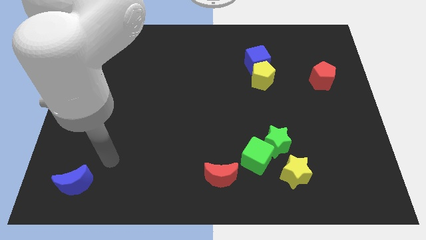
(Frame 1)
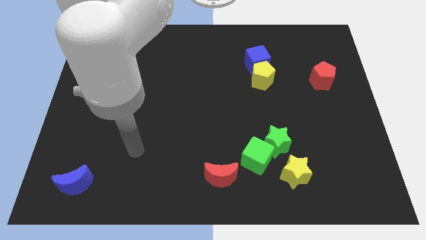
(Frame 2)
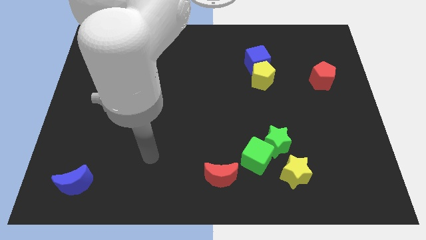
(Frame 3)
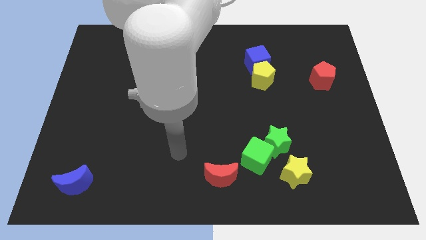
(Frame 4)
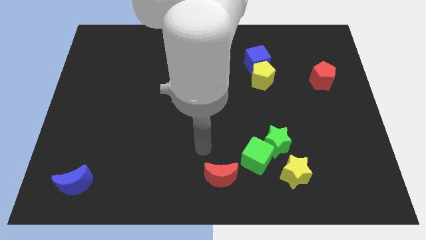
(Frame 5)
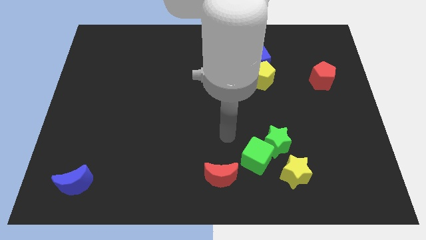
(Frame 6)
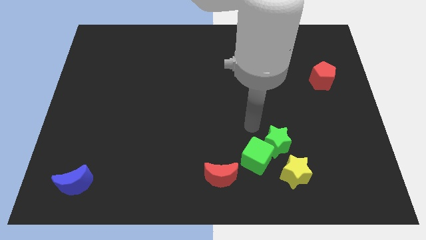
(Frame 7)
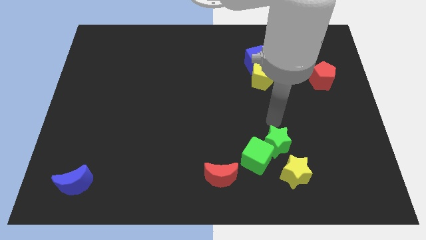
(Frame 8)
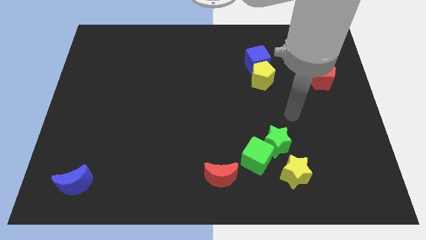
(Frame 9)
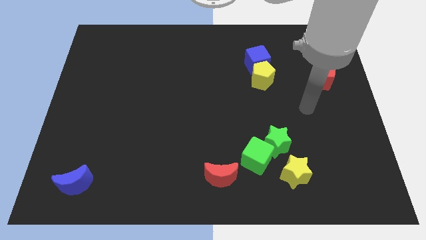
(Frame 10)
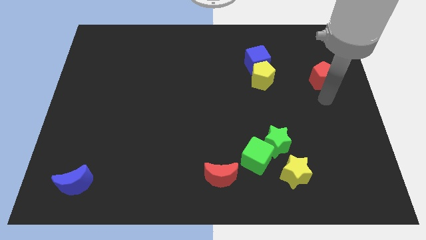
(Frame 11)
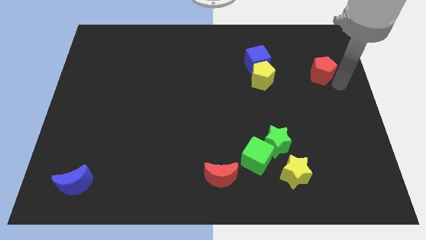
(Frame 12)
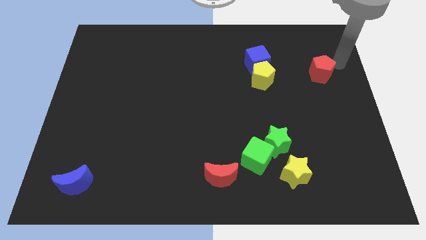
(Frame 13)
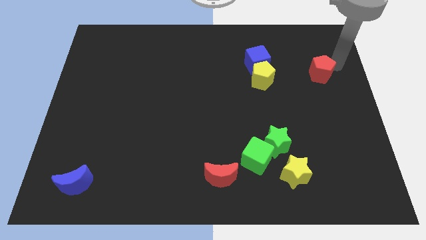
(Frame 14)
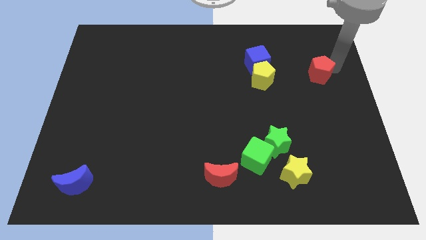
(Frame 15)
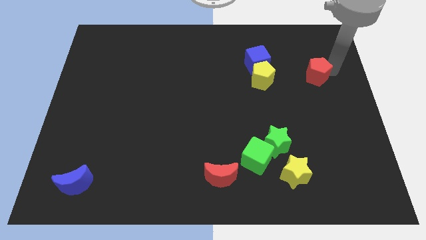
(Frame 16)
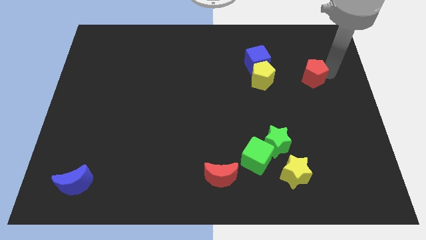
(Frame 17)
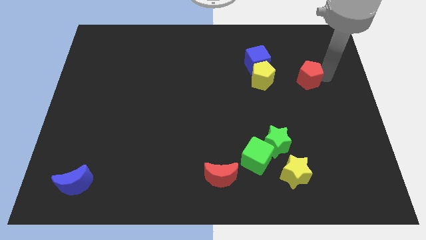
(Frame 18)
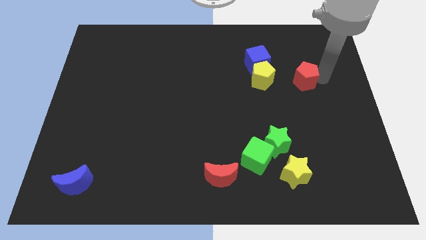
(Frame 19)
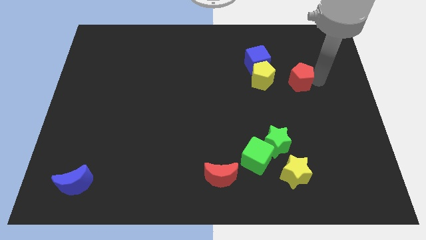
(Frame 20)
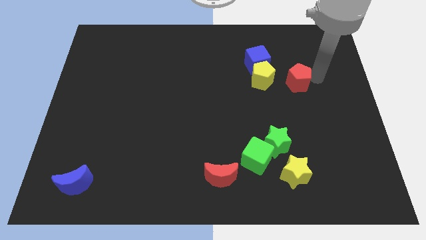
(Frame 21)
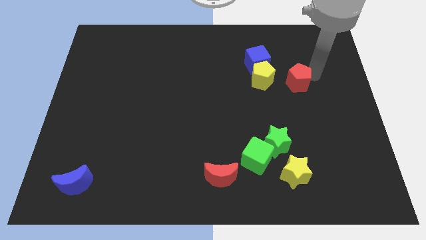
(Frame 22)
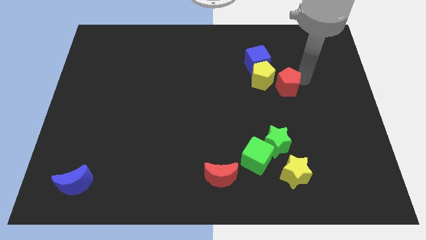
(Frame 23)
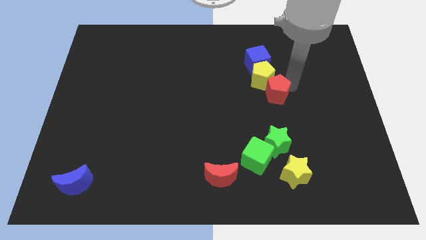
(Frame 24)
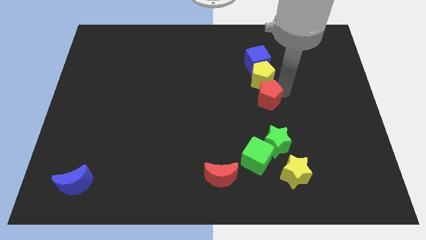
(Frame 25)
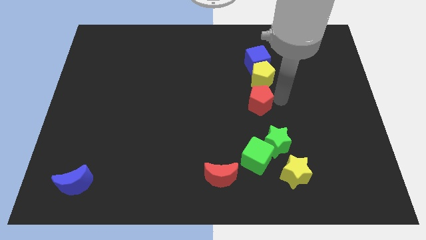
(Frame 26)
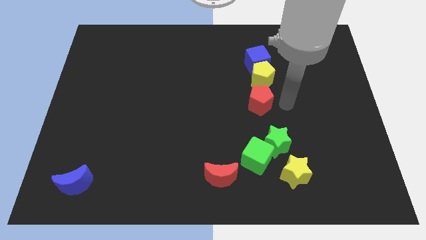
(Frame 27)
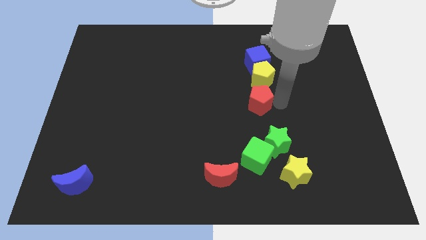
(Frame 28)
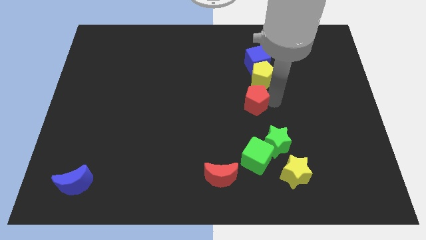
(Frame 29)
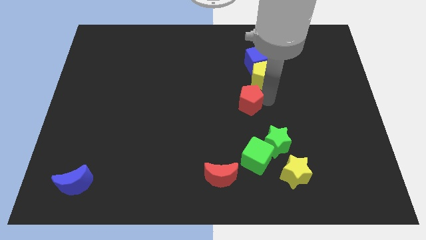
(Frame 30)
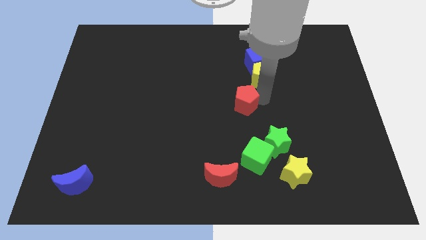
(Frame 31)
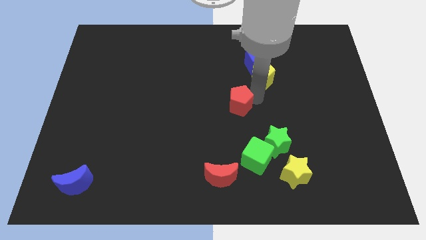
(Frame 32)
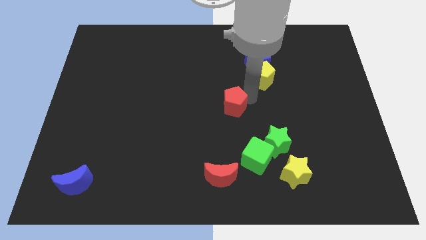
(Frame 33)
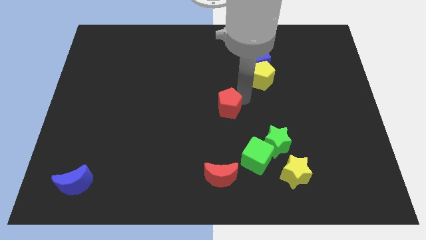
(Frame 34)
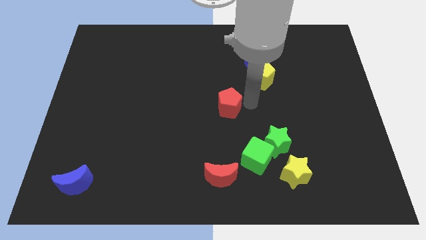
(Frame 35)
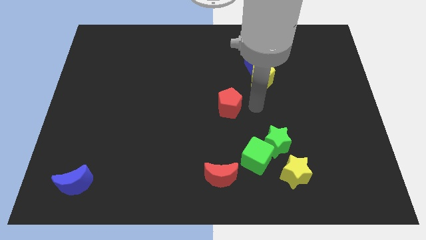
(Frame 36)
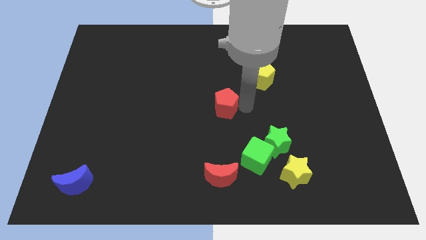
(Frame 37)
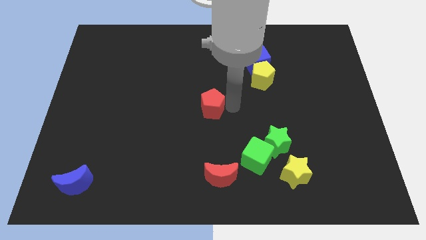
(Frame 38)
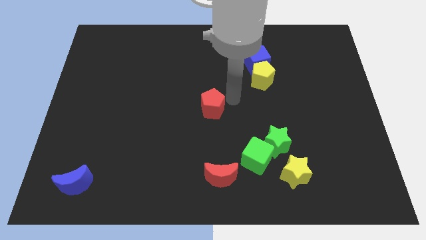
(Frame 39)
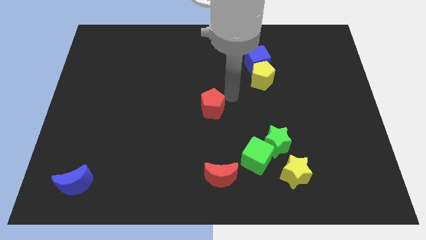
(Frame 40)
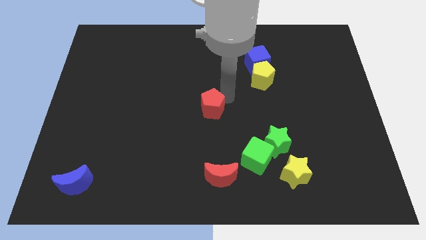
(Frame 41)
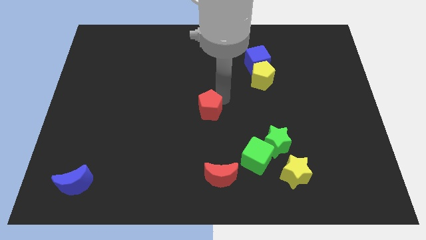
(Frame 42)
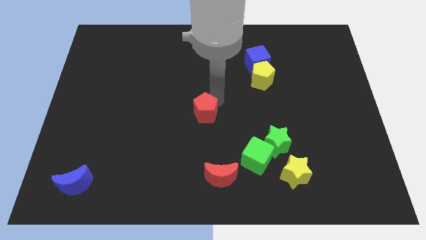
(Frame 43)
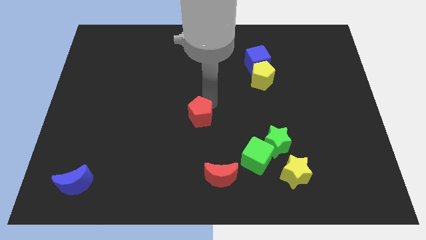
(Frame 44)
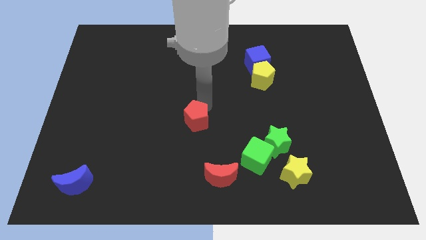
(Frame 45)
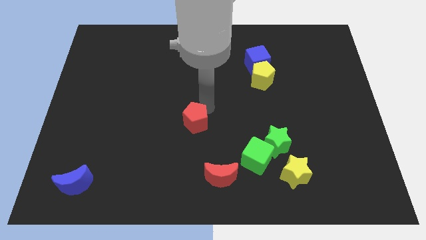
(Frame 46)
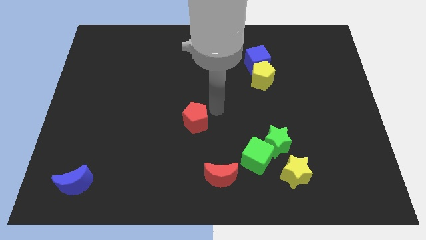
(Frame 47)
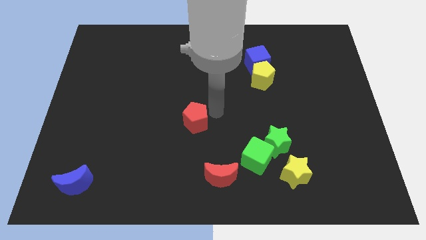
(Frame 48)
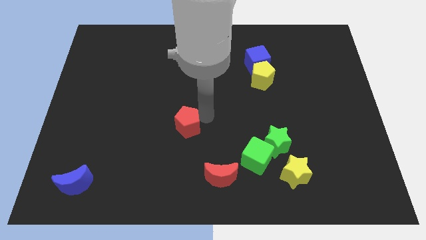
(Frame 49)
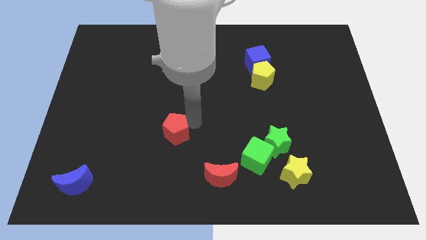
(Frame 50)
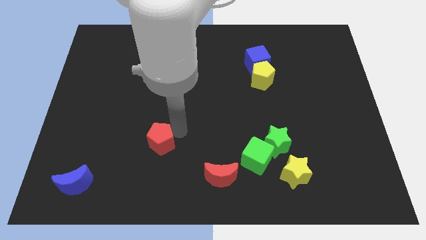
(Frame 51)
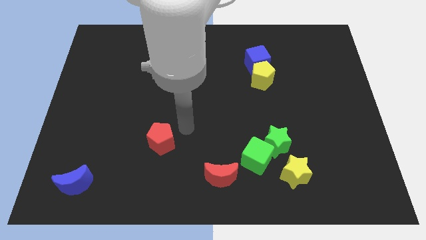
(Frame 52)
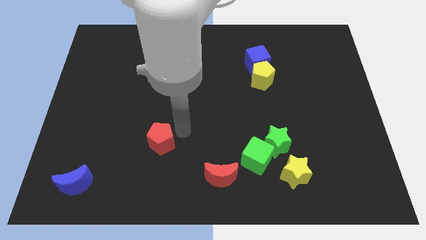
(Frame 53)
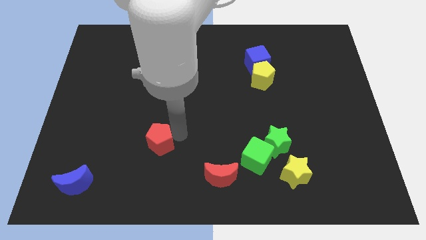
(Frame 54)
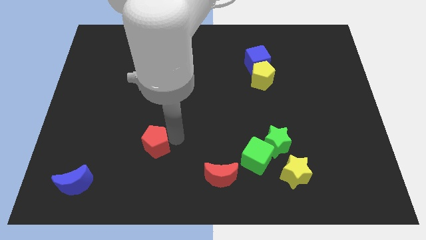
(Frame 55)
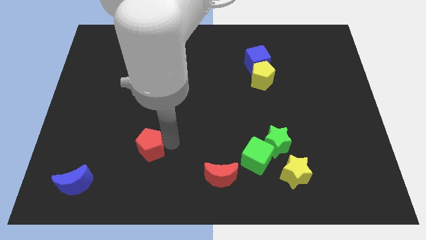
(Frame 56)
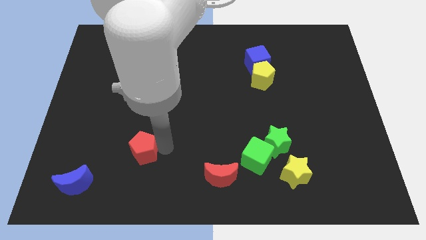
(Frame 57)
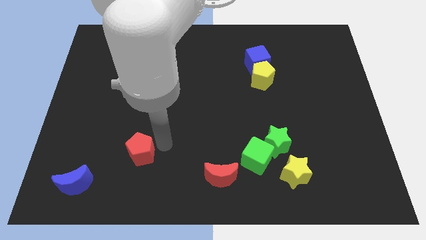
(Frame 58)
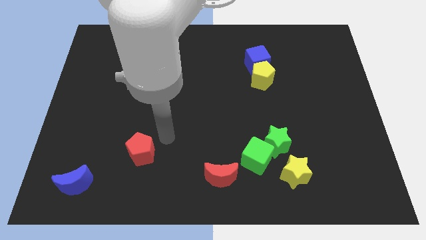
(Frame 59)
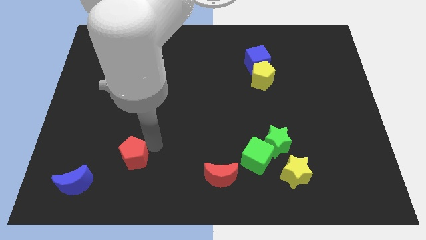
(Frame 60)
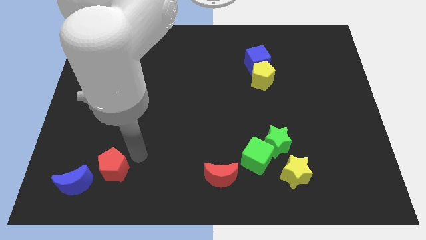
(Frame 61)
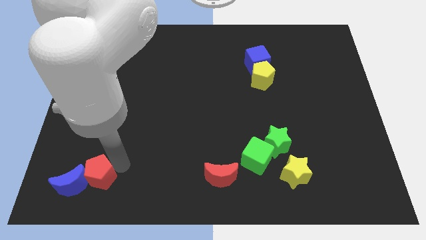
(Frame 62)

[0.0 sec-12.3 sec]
push the red pentagon towards the blue moon

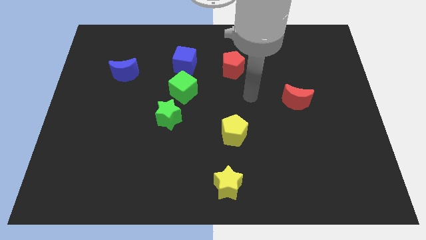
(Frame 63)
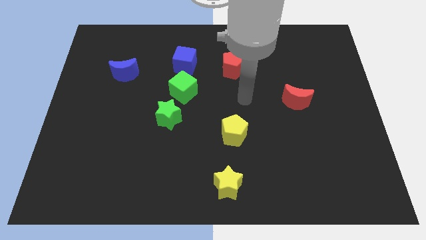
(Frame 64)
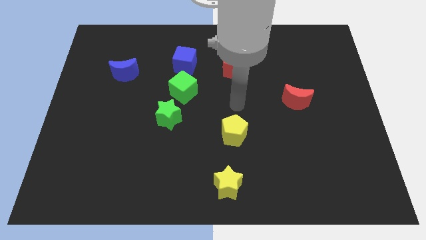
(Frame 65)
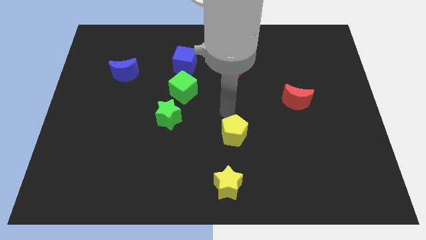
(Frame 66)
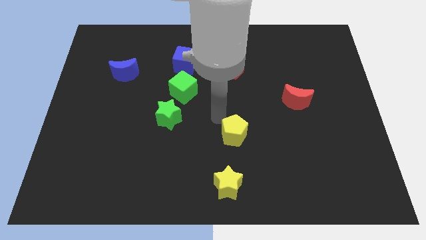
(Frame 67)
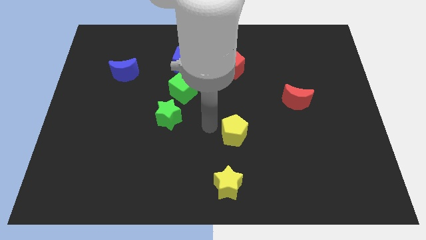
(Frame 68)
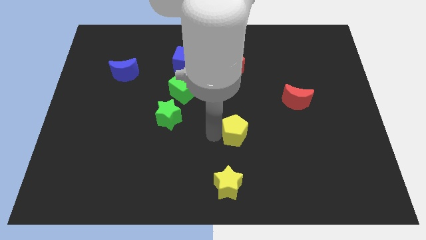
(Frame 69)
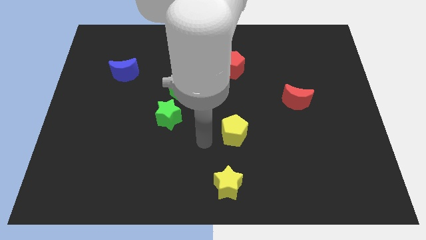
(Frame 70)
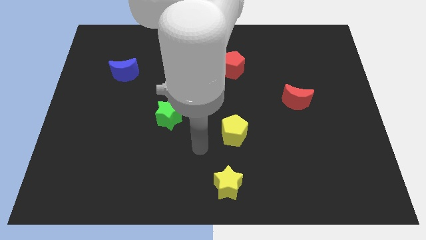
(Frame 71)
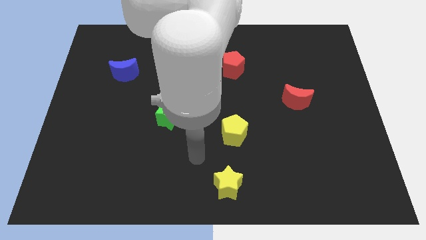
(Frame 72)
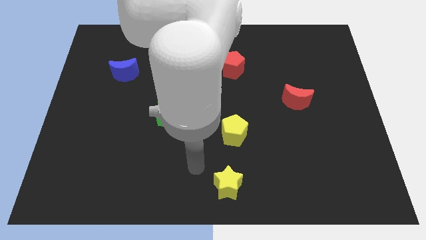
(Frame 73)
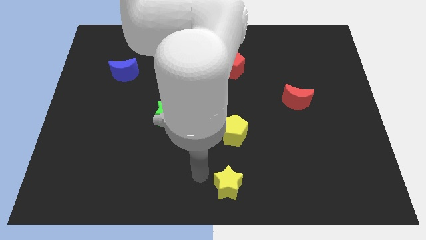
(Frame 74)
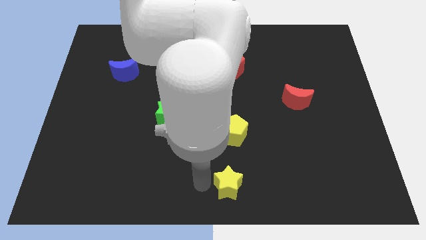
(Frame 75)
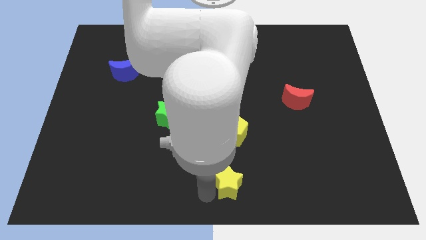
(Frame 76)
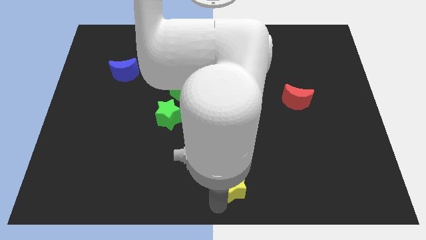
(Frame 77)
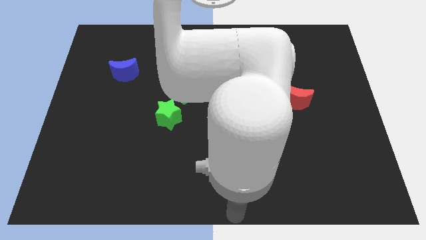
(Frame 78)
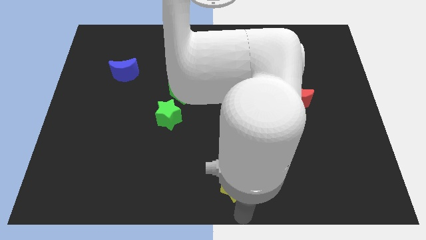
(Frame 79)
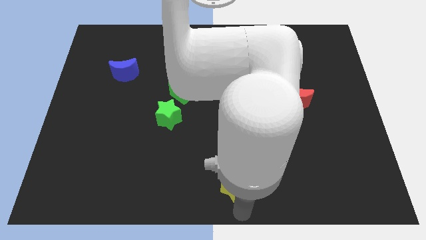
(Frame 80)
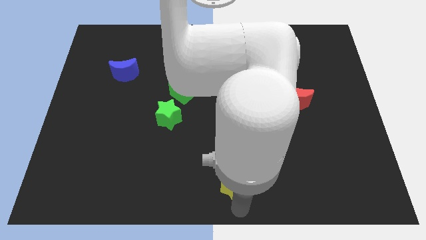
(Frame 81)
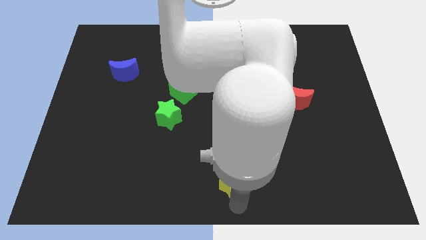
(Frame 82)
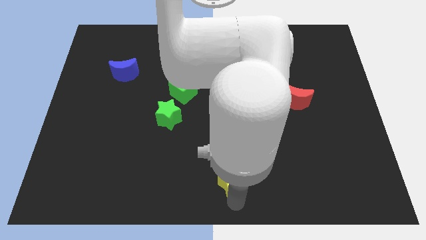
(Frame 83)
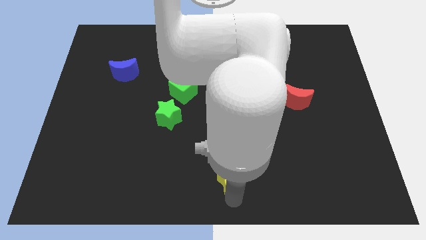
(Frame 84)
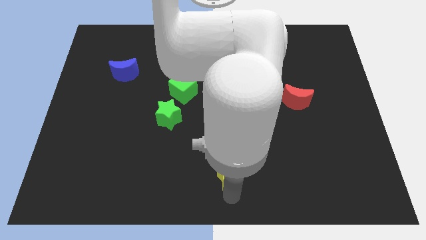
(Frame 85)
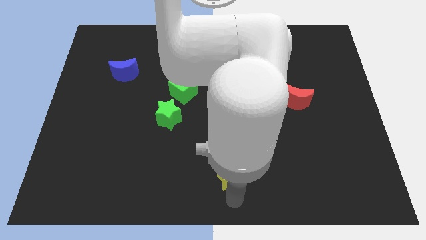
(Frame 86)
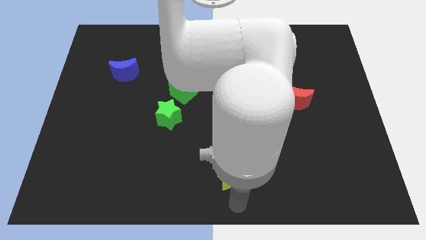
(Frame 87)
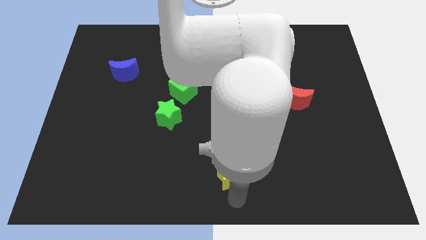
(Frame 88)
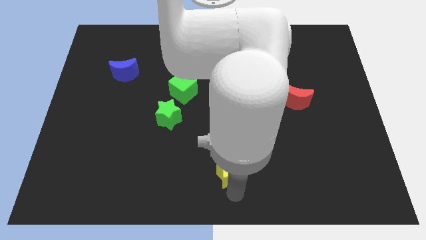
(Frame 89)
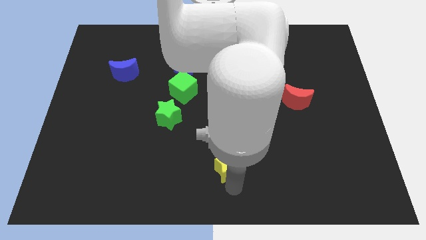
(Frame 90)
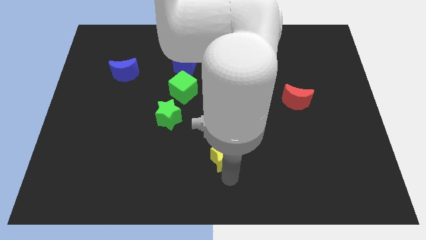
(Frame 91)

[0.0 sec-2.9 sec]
put the yellow star towards the yellow pentagon
